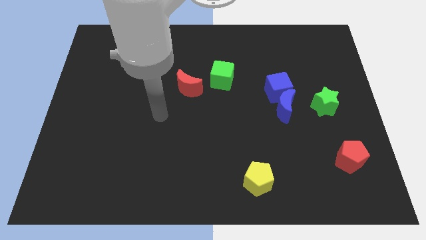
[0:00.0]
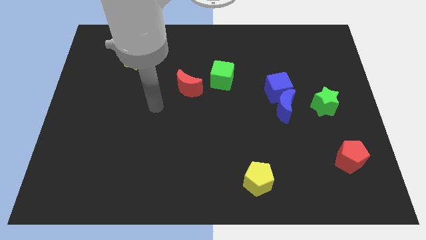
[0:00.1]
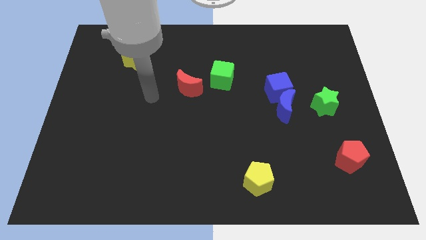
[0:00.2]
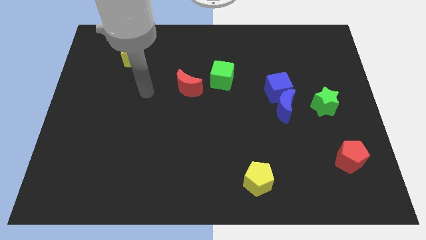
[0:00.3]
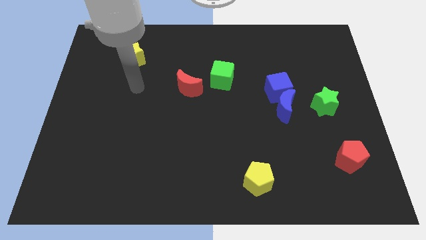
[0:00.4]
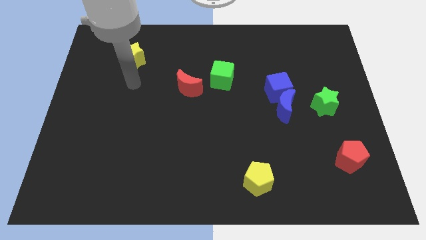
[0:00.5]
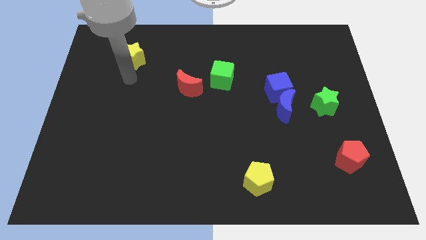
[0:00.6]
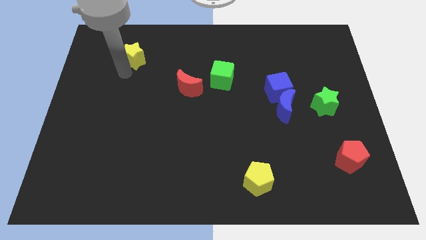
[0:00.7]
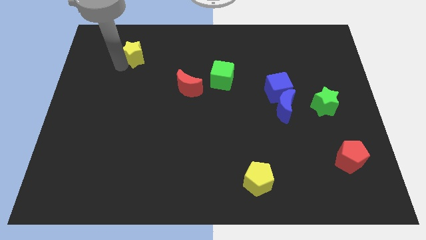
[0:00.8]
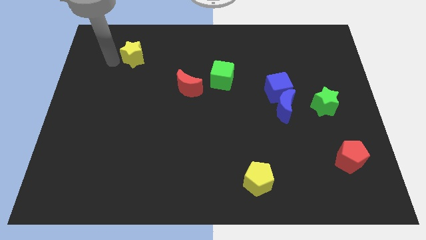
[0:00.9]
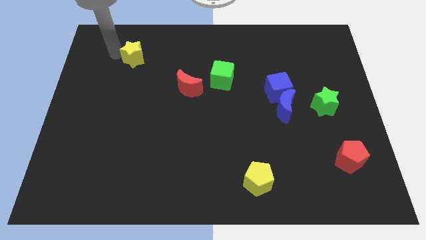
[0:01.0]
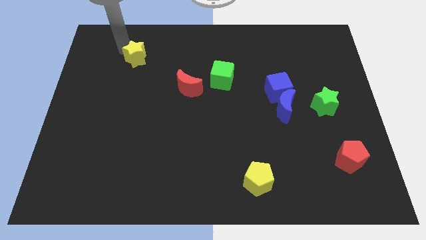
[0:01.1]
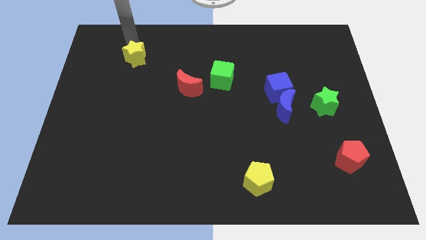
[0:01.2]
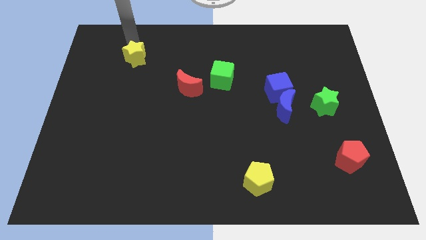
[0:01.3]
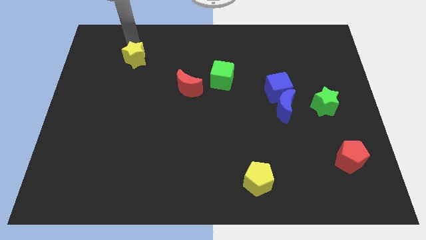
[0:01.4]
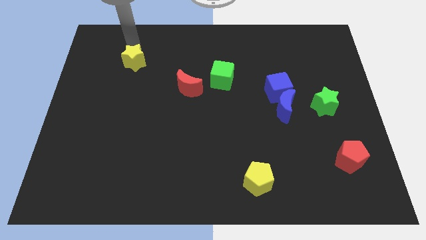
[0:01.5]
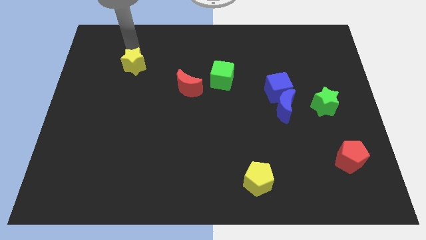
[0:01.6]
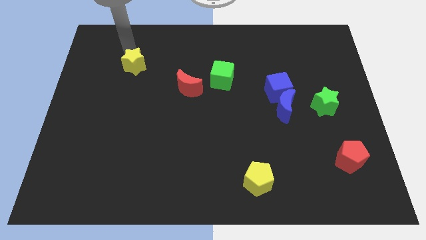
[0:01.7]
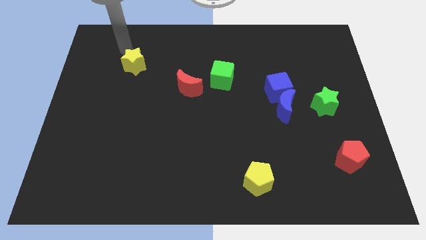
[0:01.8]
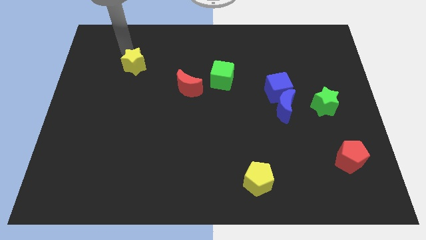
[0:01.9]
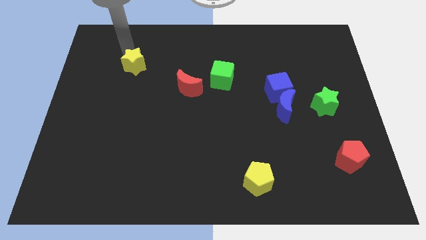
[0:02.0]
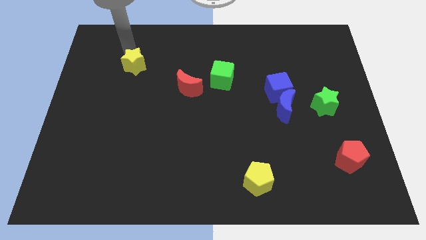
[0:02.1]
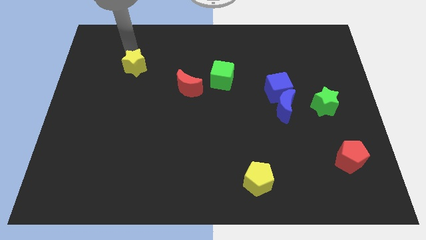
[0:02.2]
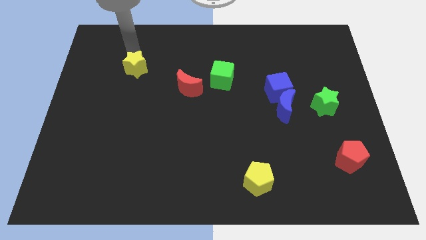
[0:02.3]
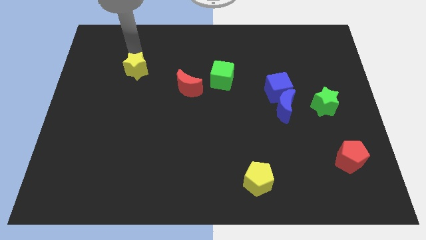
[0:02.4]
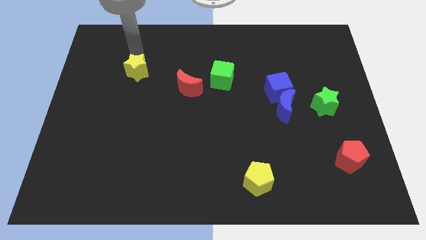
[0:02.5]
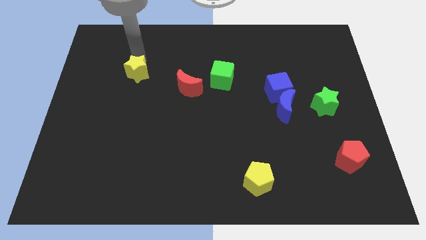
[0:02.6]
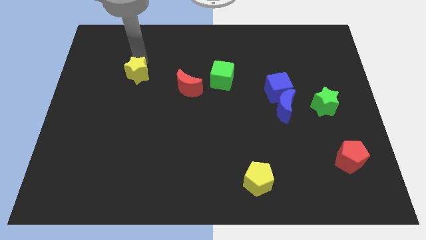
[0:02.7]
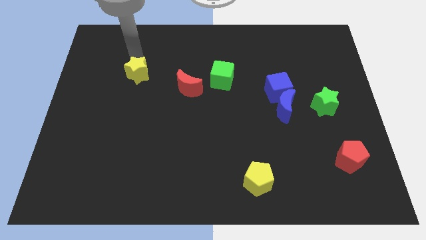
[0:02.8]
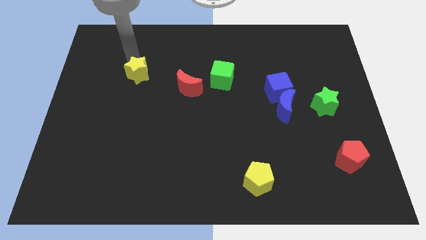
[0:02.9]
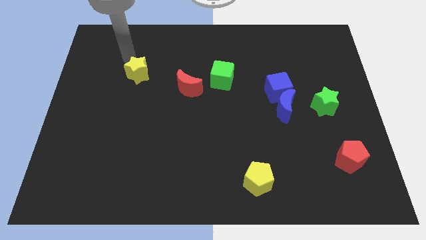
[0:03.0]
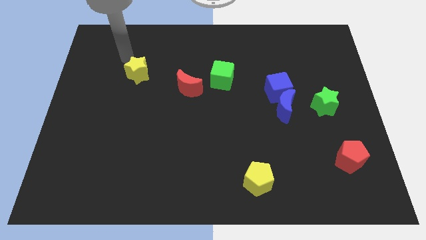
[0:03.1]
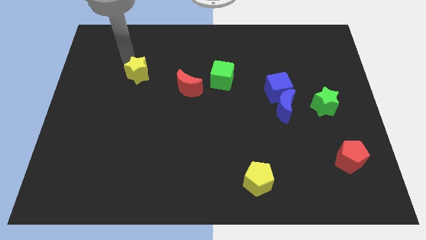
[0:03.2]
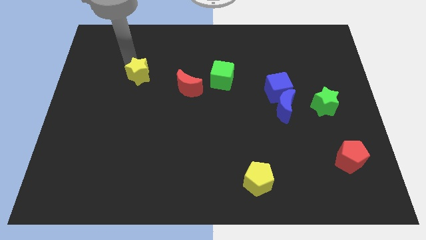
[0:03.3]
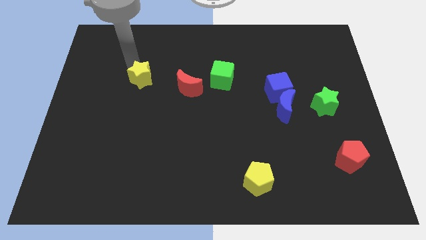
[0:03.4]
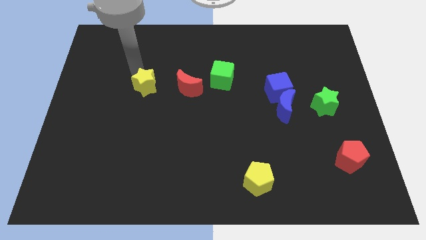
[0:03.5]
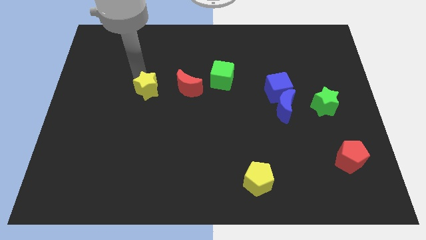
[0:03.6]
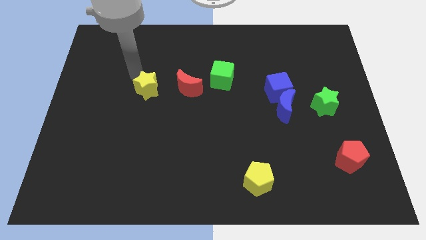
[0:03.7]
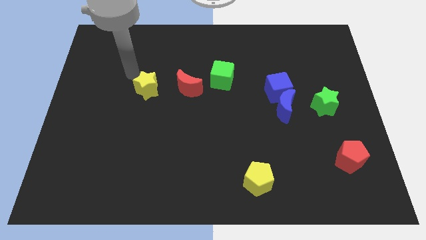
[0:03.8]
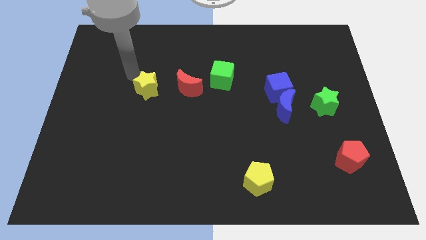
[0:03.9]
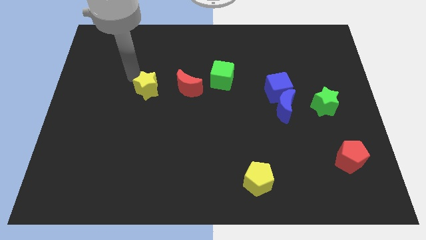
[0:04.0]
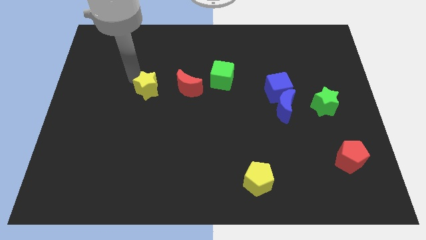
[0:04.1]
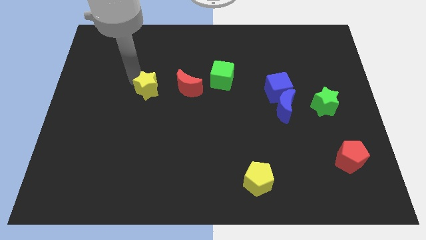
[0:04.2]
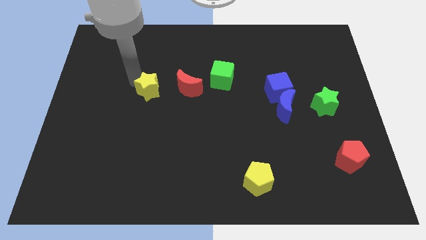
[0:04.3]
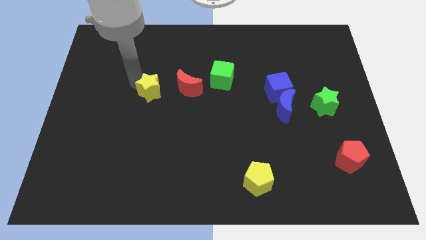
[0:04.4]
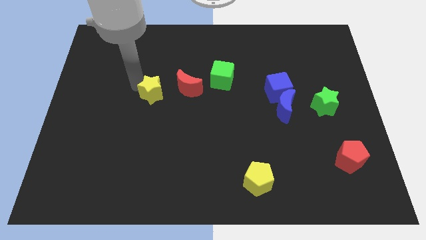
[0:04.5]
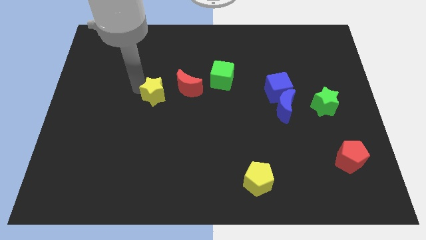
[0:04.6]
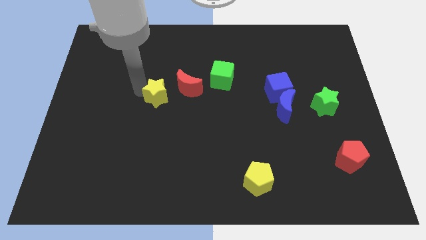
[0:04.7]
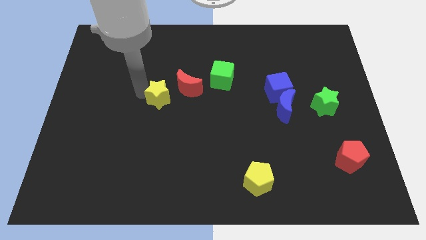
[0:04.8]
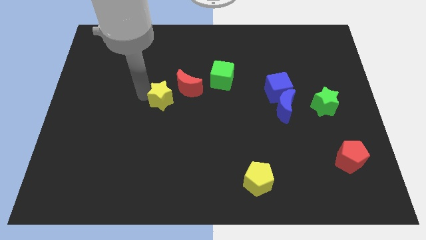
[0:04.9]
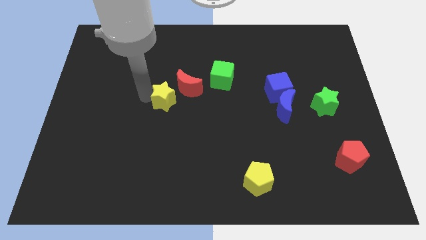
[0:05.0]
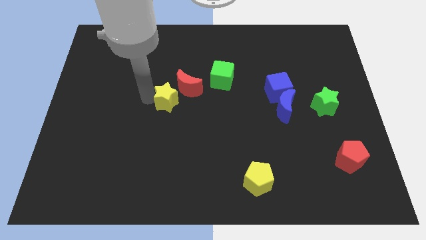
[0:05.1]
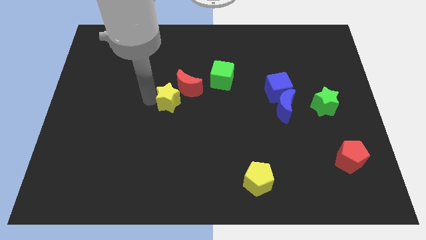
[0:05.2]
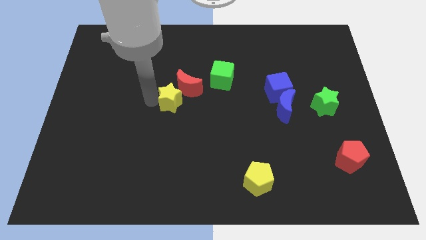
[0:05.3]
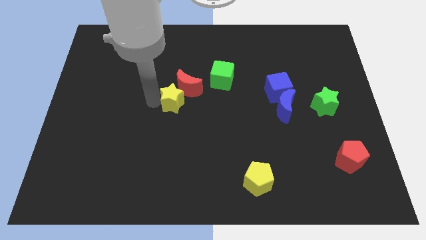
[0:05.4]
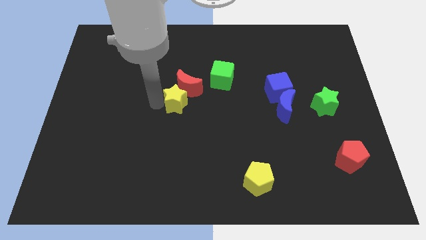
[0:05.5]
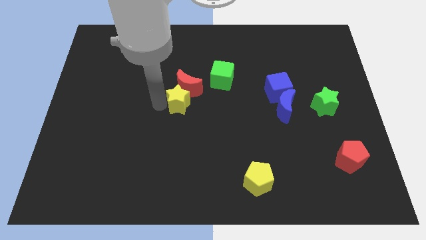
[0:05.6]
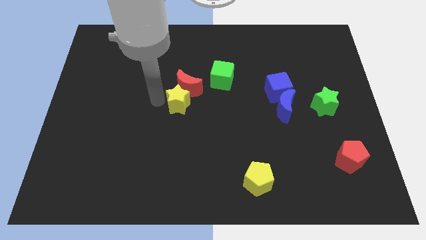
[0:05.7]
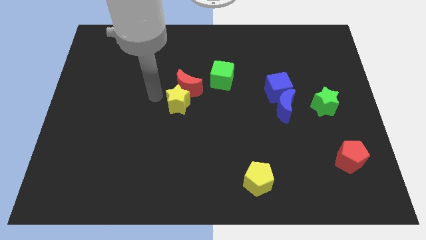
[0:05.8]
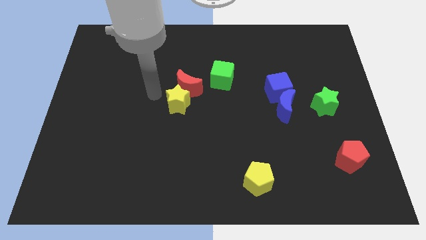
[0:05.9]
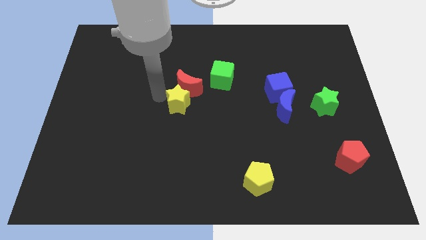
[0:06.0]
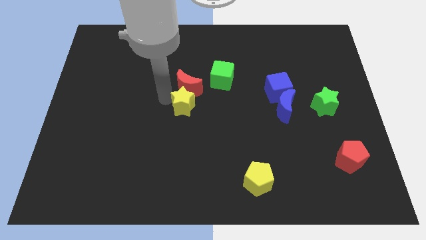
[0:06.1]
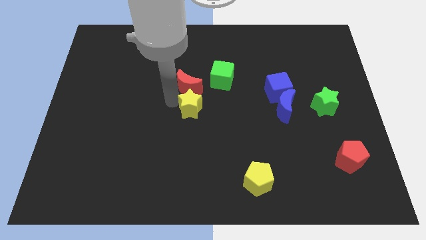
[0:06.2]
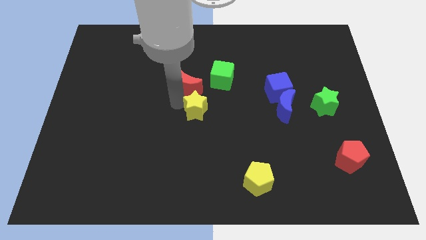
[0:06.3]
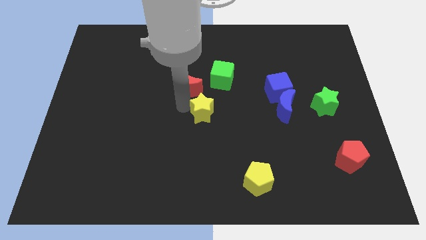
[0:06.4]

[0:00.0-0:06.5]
slide the yellow star to the bottom of the green cube

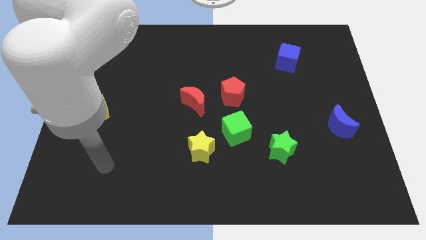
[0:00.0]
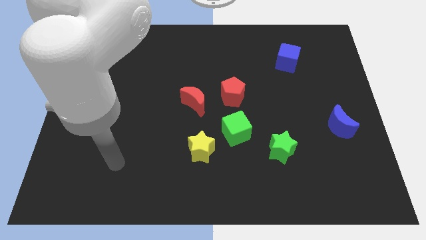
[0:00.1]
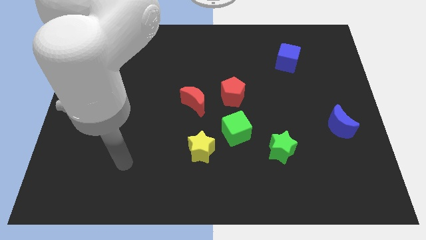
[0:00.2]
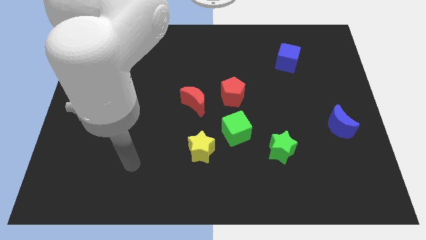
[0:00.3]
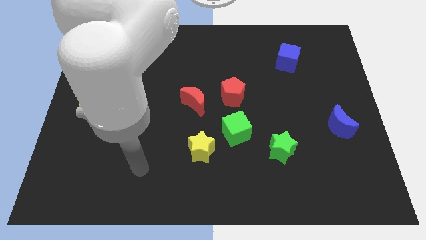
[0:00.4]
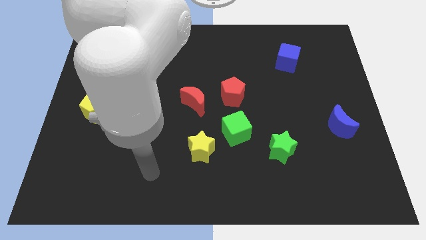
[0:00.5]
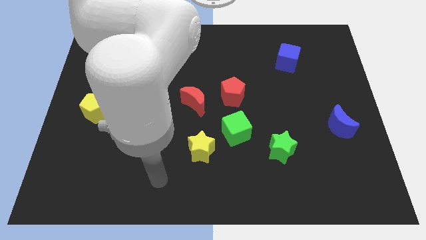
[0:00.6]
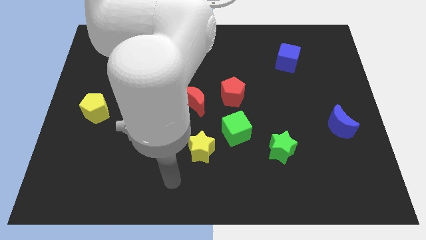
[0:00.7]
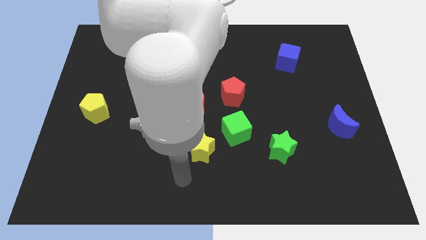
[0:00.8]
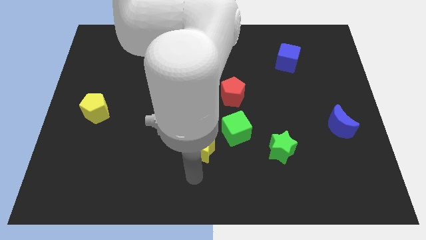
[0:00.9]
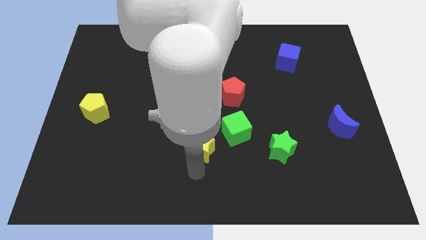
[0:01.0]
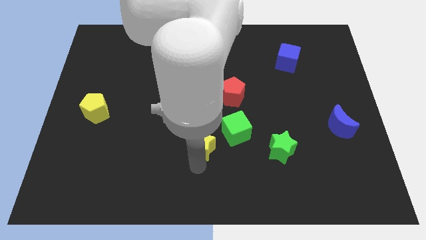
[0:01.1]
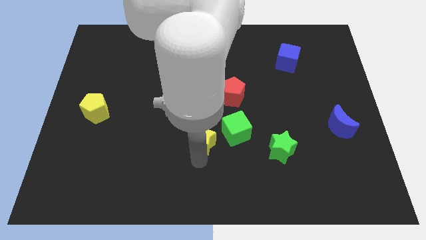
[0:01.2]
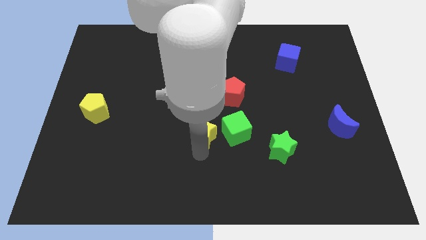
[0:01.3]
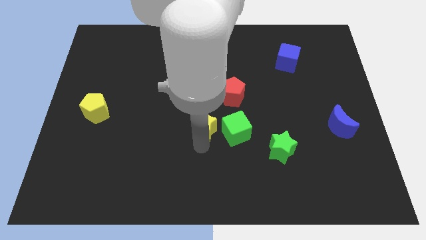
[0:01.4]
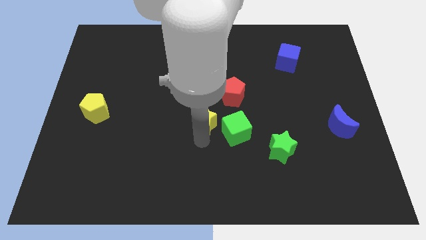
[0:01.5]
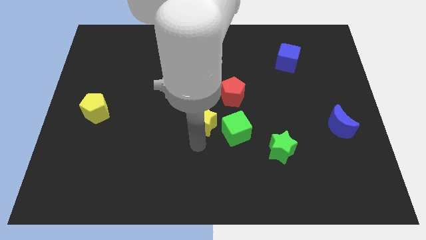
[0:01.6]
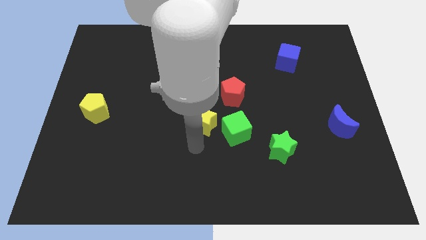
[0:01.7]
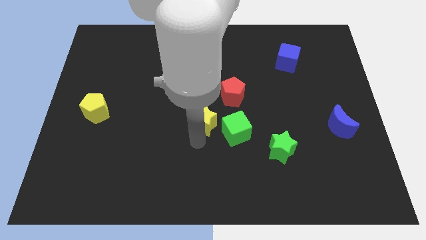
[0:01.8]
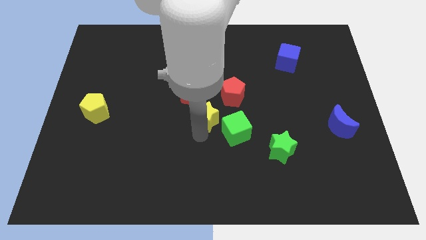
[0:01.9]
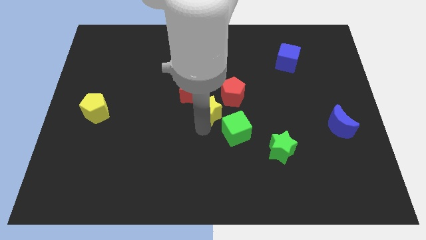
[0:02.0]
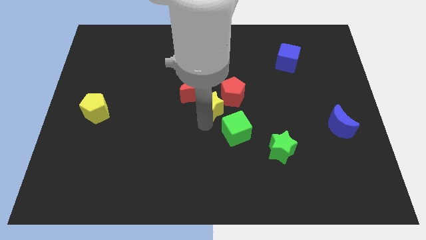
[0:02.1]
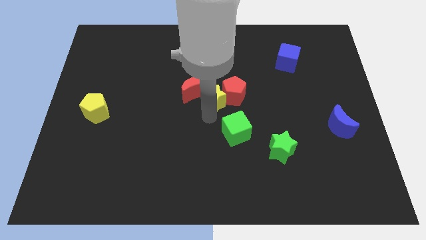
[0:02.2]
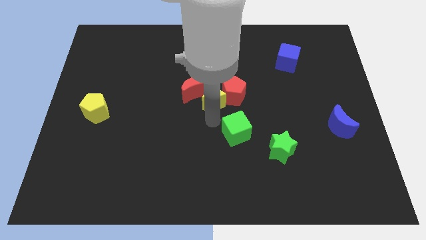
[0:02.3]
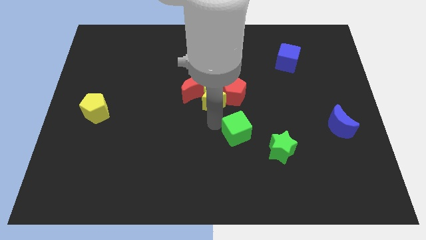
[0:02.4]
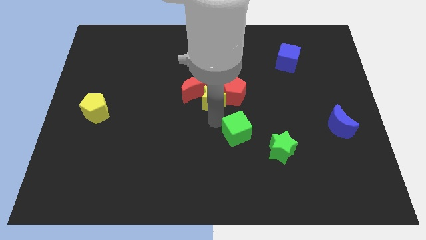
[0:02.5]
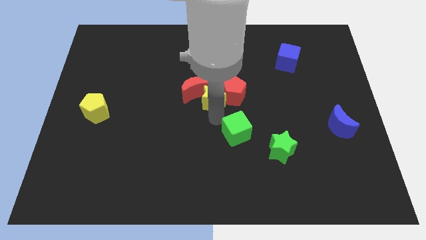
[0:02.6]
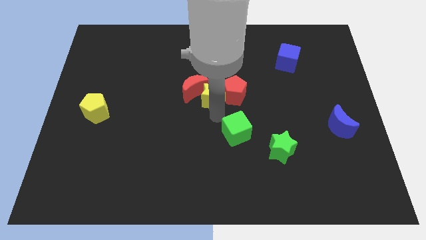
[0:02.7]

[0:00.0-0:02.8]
slide the yellow star to the top left of the red pentagon
